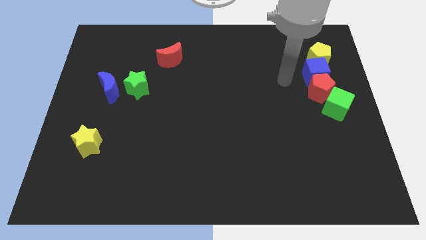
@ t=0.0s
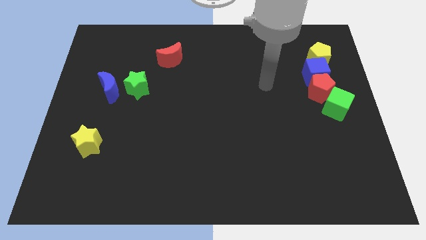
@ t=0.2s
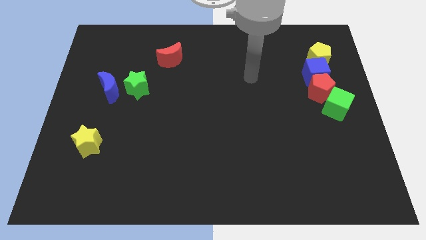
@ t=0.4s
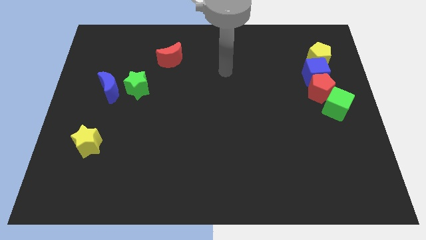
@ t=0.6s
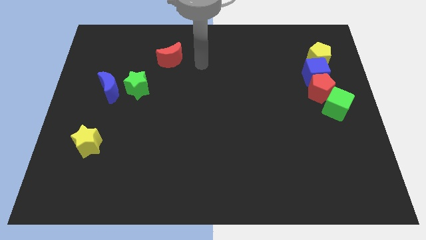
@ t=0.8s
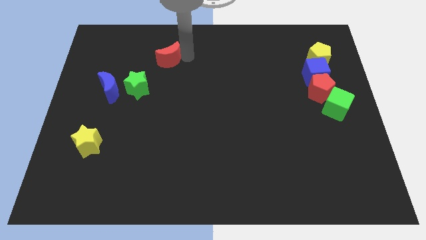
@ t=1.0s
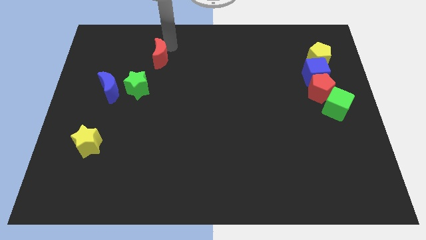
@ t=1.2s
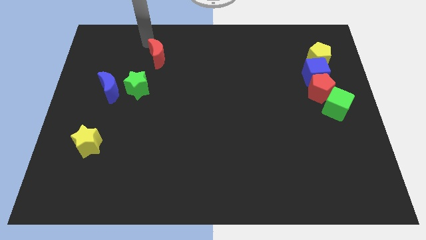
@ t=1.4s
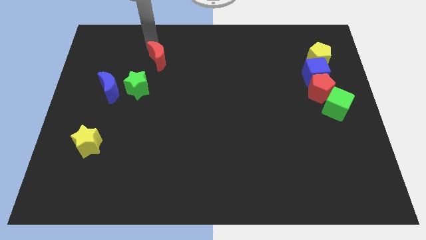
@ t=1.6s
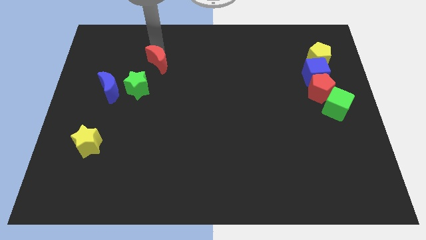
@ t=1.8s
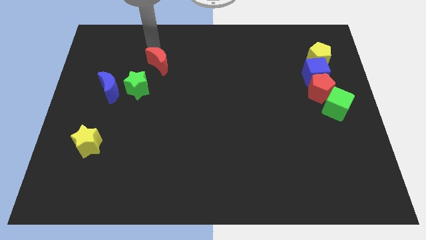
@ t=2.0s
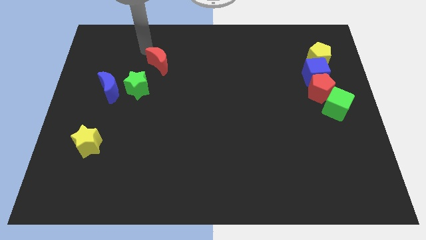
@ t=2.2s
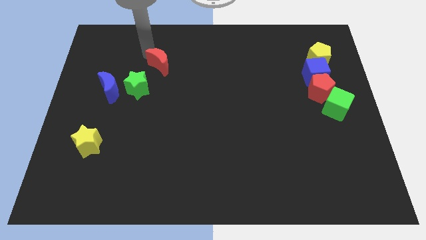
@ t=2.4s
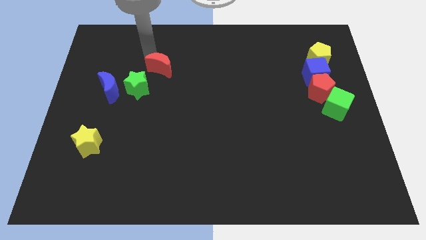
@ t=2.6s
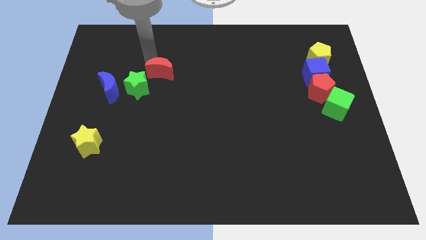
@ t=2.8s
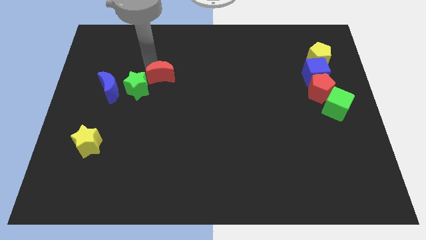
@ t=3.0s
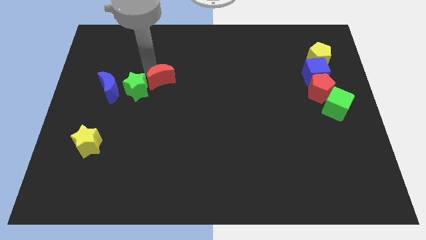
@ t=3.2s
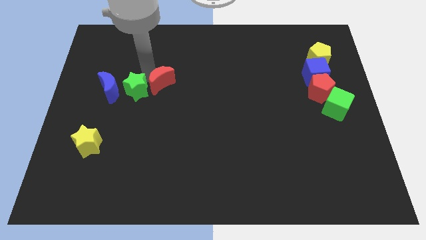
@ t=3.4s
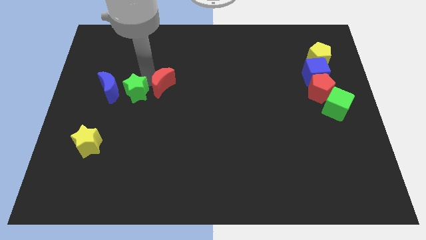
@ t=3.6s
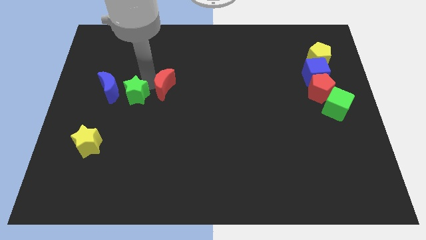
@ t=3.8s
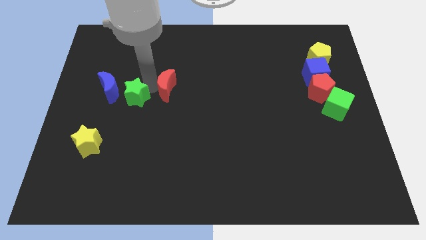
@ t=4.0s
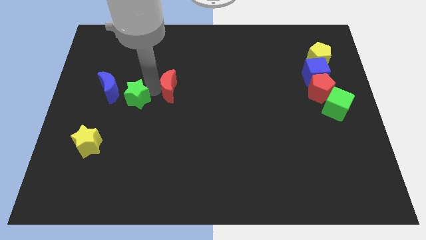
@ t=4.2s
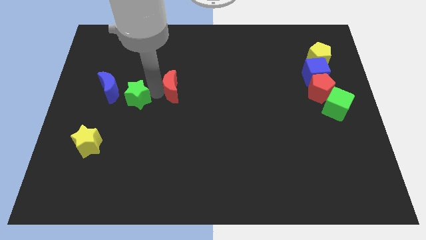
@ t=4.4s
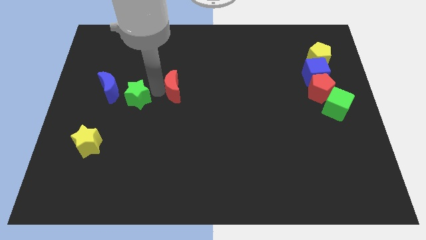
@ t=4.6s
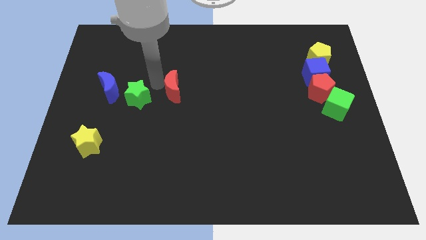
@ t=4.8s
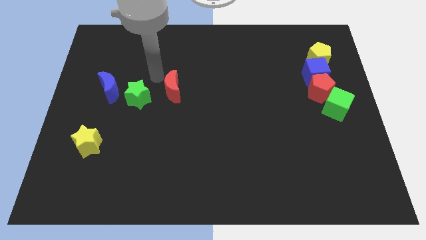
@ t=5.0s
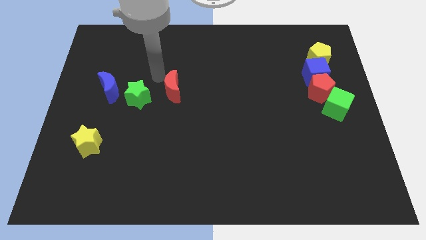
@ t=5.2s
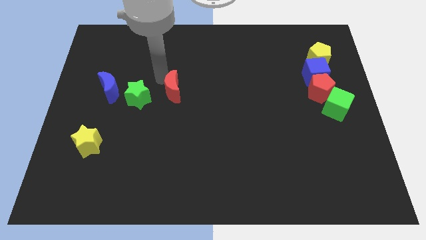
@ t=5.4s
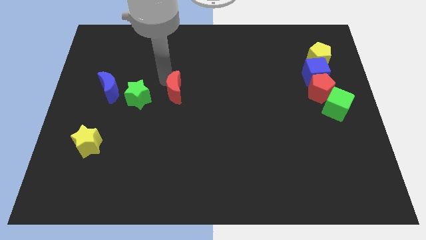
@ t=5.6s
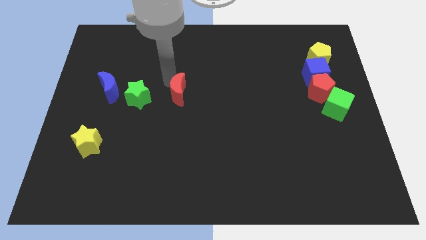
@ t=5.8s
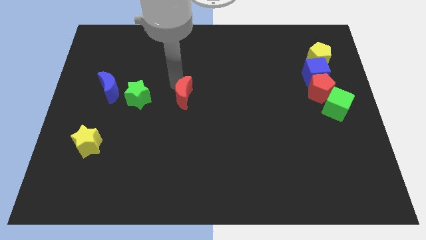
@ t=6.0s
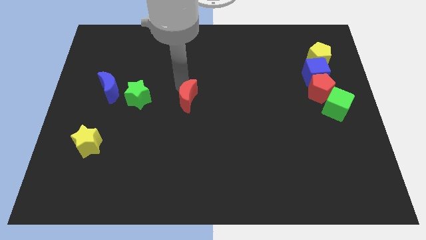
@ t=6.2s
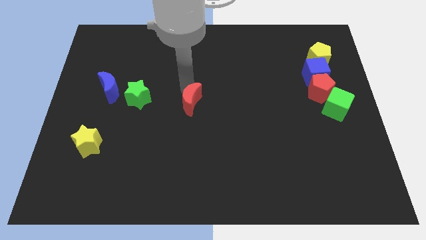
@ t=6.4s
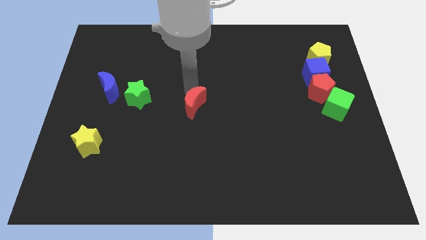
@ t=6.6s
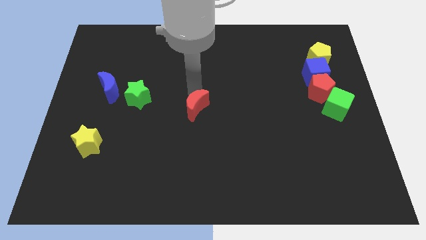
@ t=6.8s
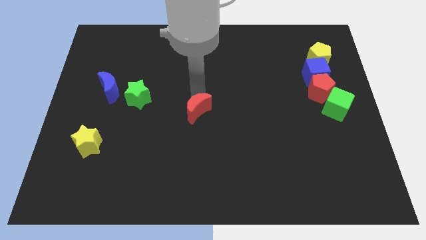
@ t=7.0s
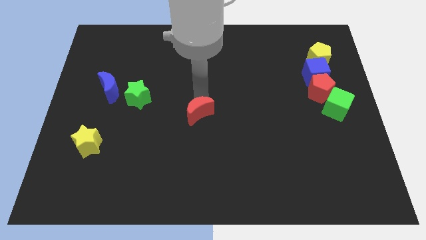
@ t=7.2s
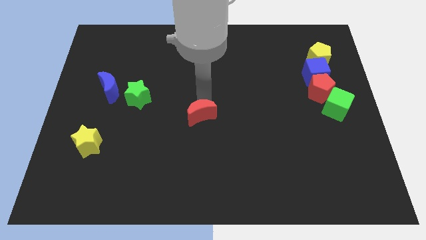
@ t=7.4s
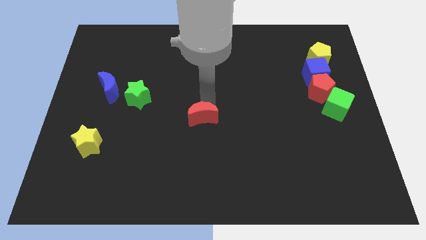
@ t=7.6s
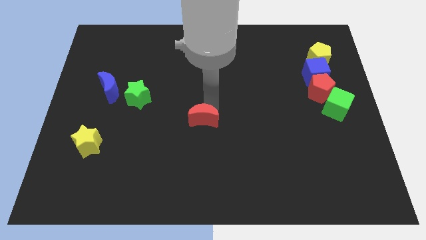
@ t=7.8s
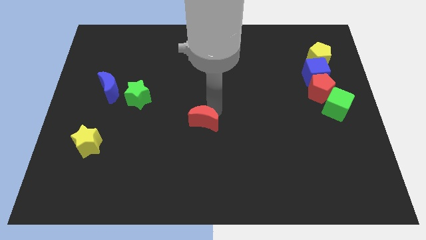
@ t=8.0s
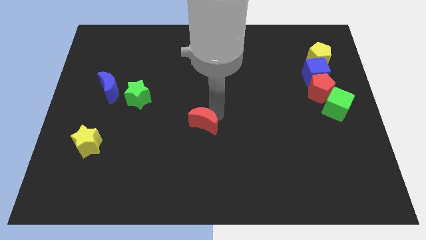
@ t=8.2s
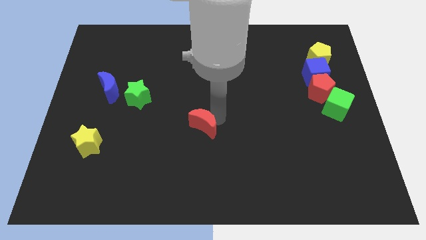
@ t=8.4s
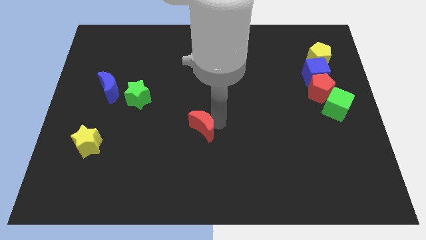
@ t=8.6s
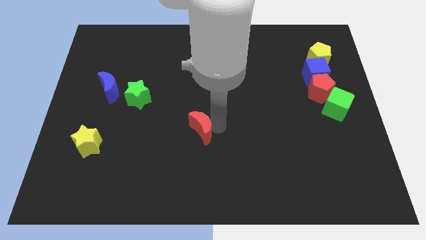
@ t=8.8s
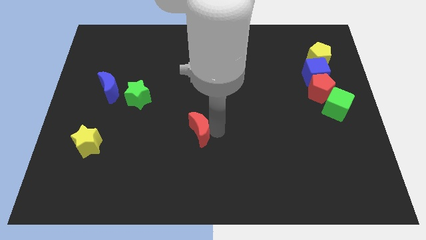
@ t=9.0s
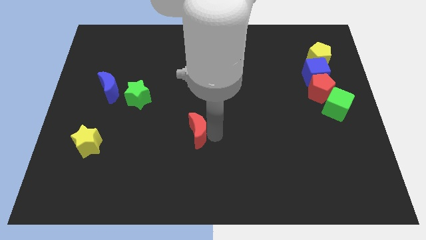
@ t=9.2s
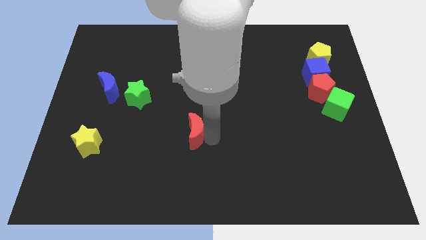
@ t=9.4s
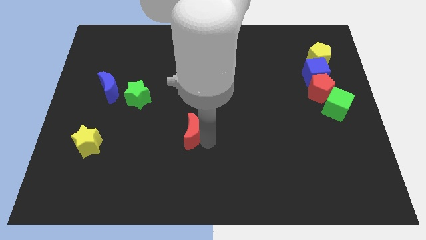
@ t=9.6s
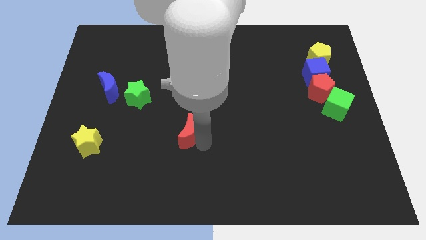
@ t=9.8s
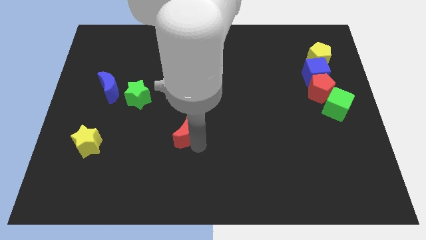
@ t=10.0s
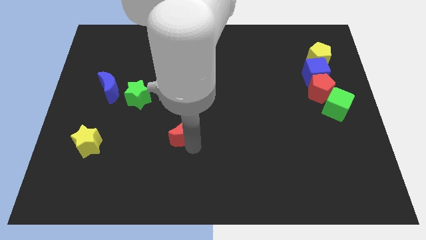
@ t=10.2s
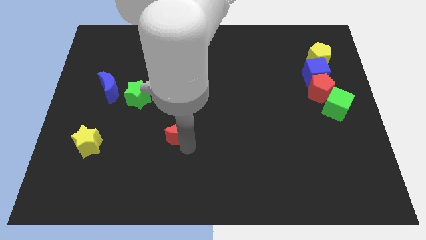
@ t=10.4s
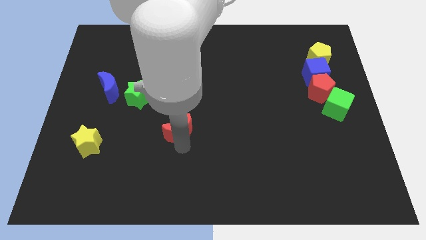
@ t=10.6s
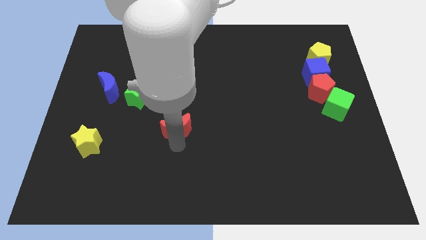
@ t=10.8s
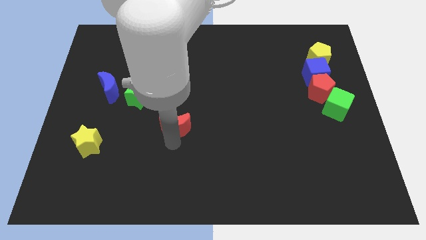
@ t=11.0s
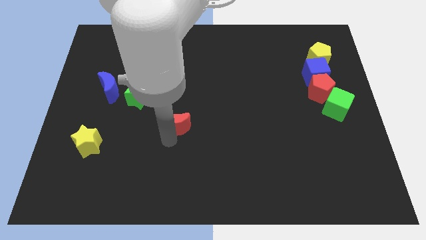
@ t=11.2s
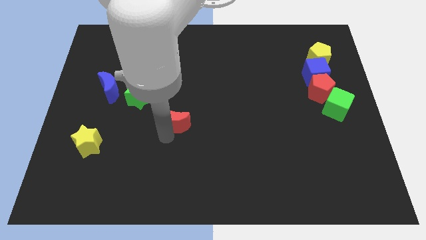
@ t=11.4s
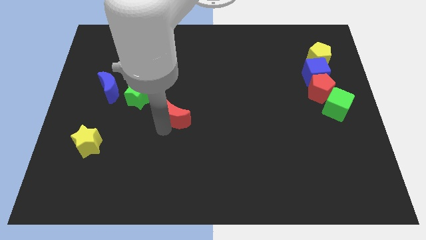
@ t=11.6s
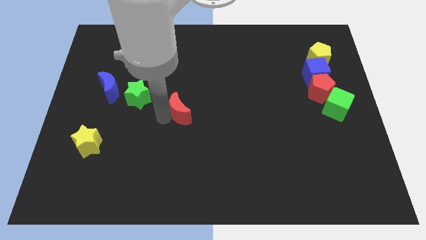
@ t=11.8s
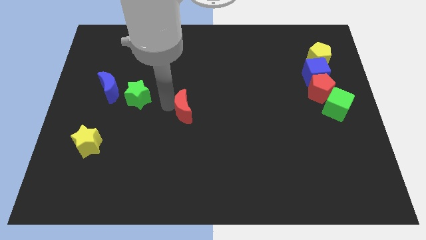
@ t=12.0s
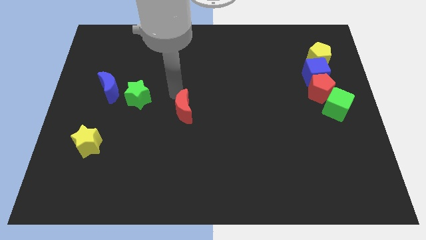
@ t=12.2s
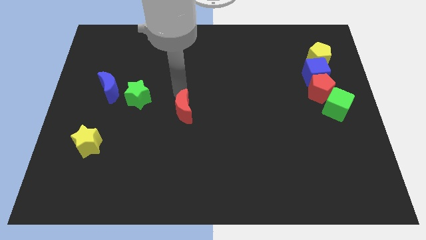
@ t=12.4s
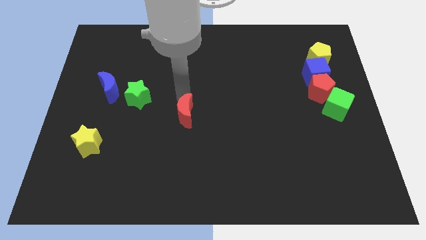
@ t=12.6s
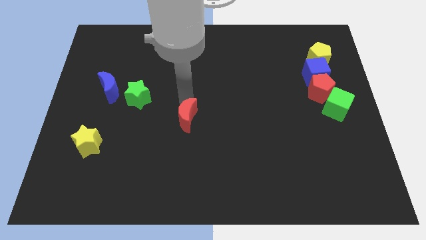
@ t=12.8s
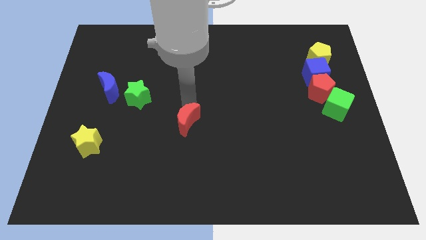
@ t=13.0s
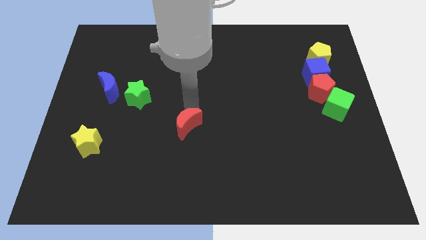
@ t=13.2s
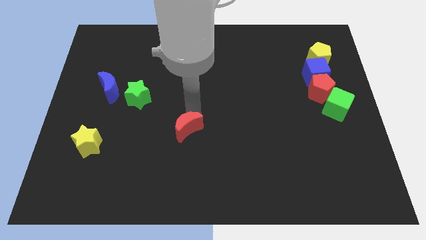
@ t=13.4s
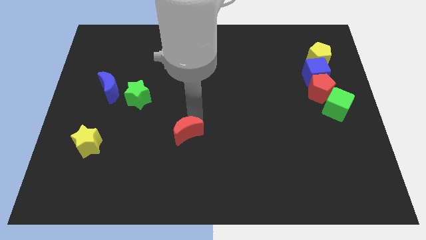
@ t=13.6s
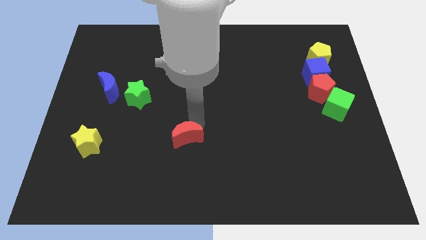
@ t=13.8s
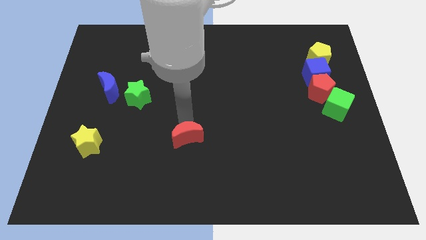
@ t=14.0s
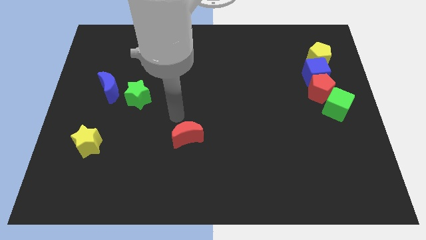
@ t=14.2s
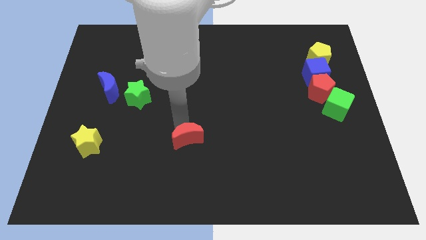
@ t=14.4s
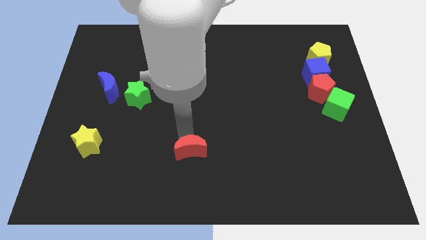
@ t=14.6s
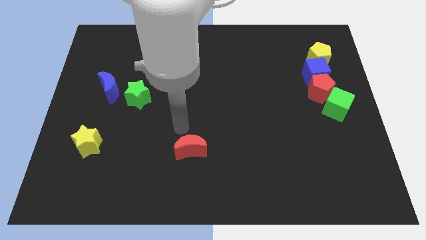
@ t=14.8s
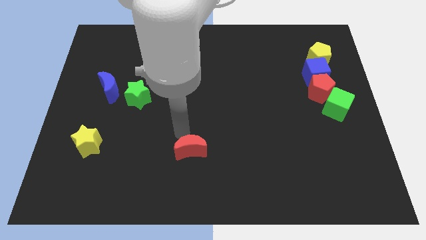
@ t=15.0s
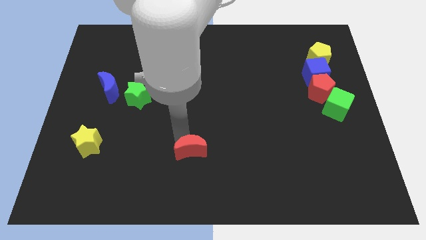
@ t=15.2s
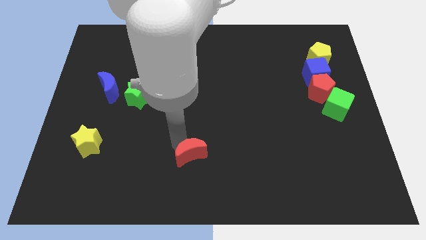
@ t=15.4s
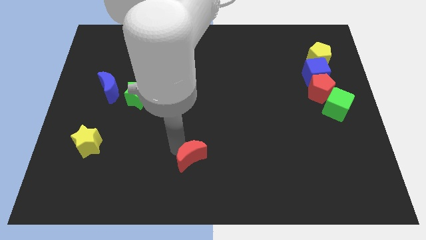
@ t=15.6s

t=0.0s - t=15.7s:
slide the red moon to the bottom
